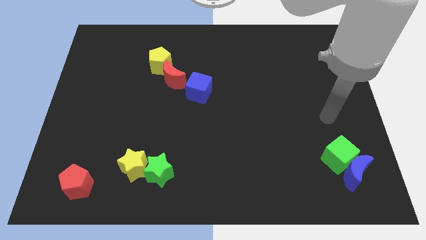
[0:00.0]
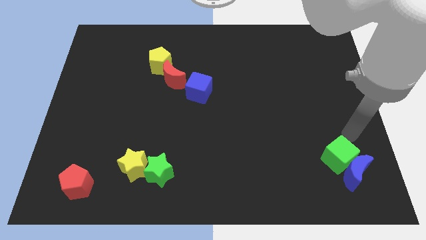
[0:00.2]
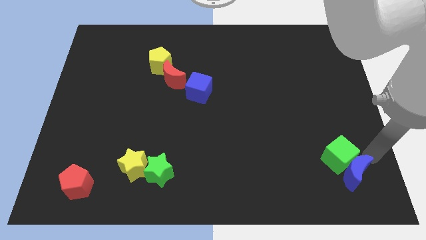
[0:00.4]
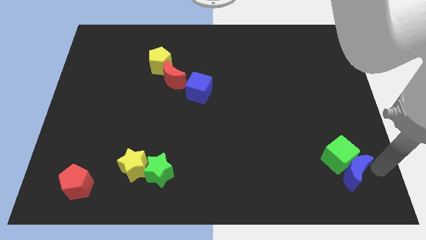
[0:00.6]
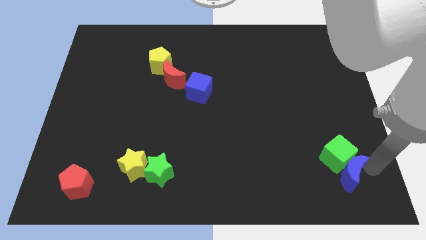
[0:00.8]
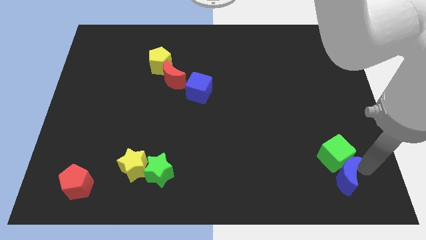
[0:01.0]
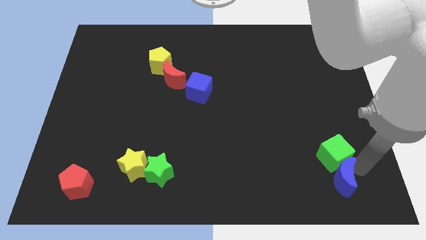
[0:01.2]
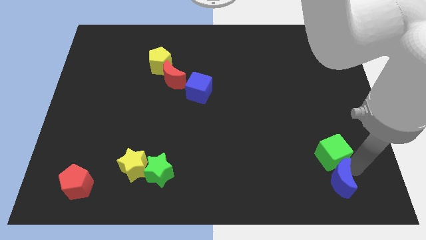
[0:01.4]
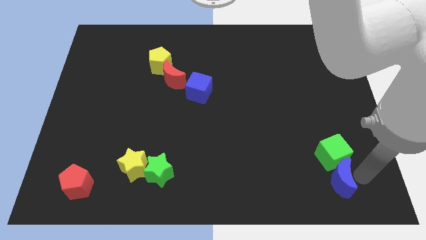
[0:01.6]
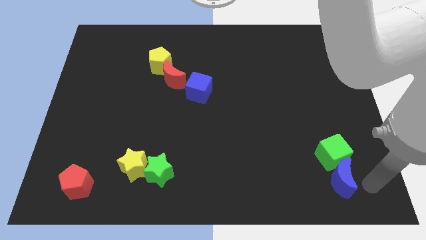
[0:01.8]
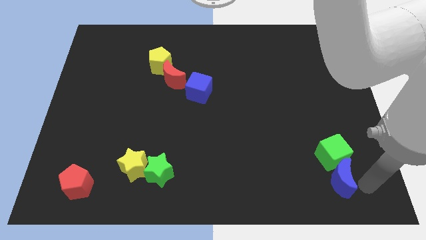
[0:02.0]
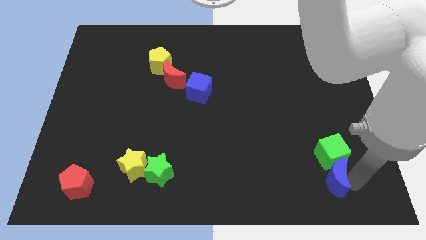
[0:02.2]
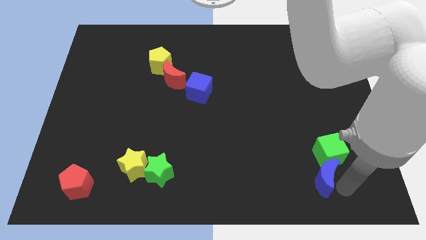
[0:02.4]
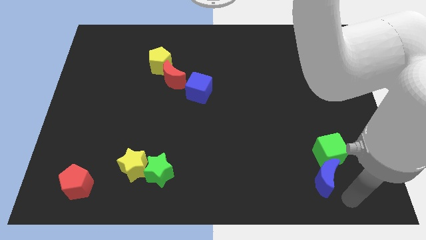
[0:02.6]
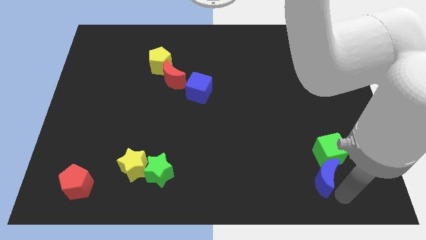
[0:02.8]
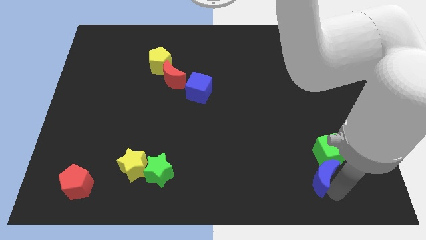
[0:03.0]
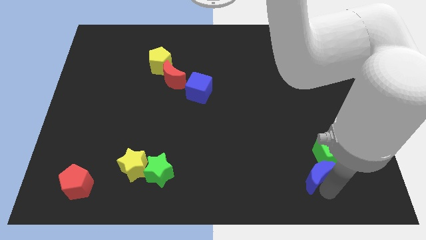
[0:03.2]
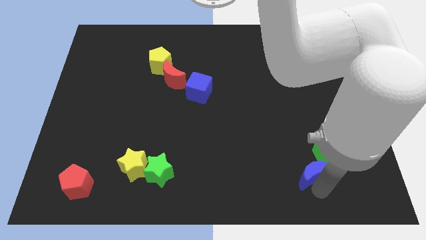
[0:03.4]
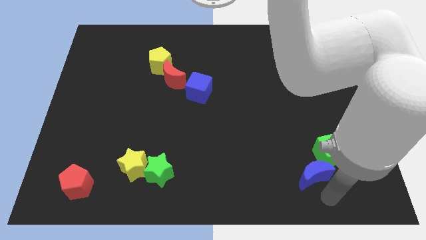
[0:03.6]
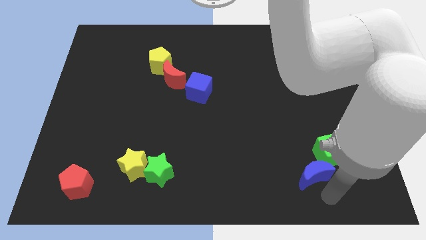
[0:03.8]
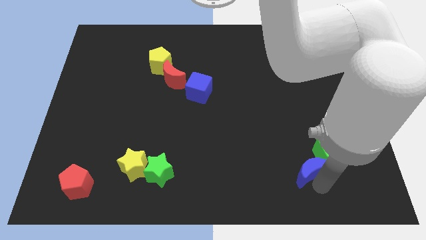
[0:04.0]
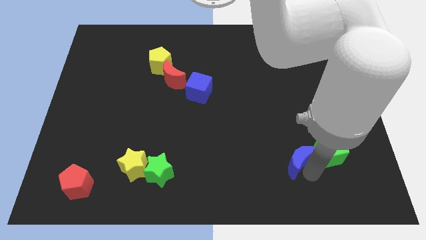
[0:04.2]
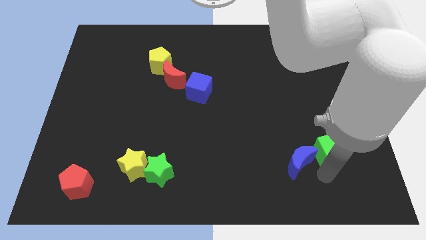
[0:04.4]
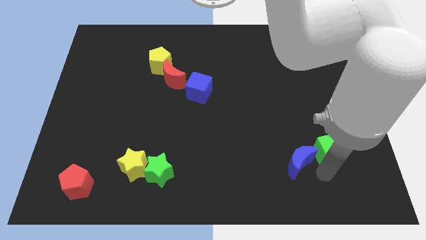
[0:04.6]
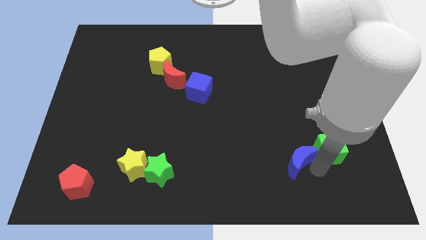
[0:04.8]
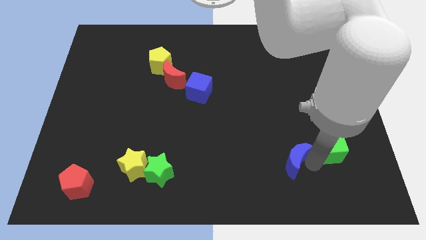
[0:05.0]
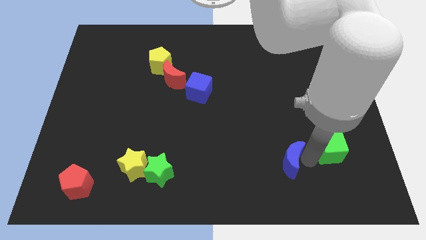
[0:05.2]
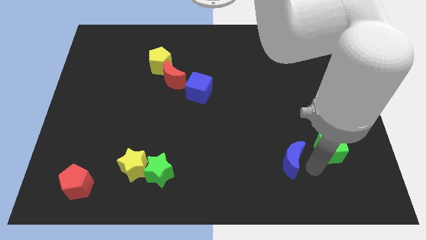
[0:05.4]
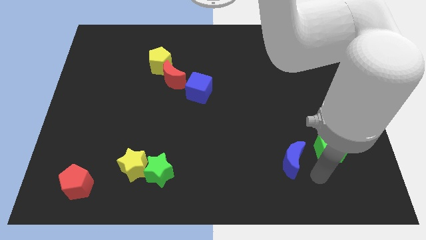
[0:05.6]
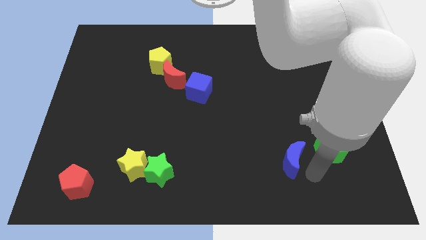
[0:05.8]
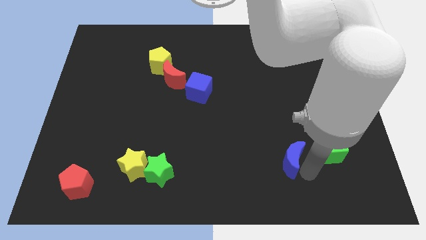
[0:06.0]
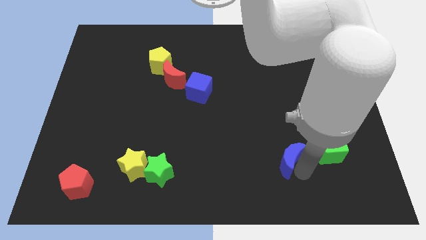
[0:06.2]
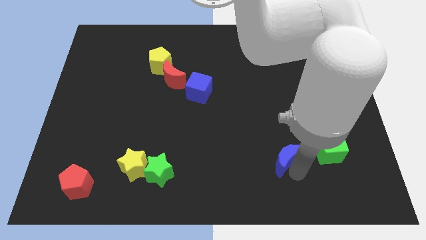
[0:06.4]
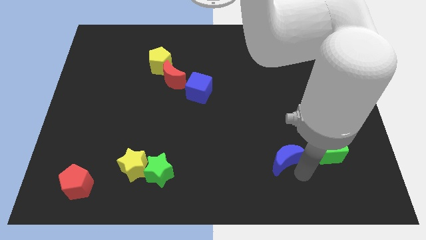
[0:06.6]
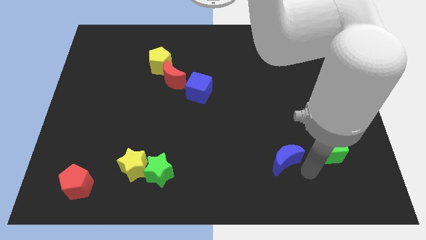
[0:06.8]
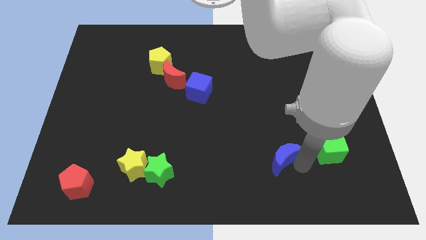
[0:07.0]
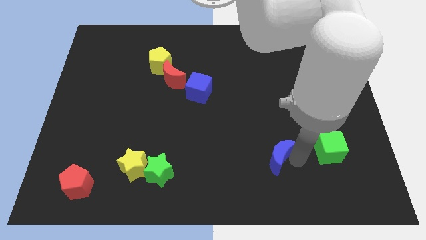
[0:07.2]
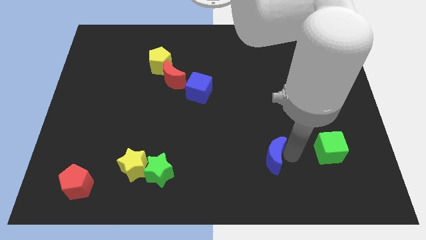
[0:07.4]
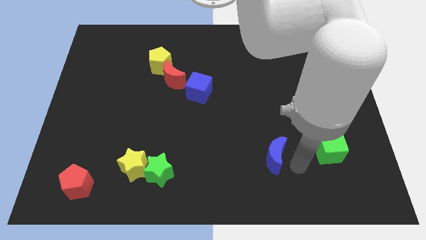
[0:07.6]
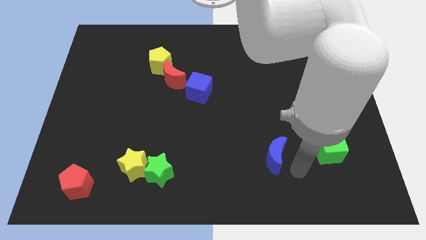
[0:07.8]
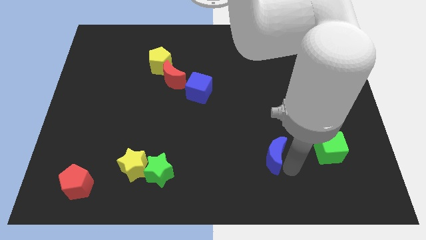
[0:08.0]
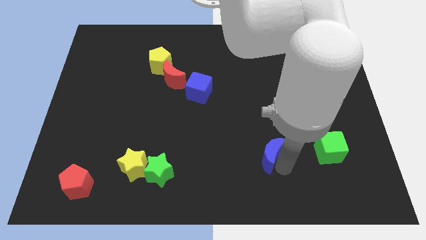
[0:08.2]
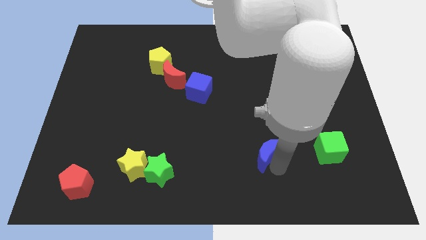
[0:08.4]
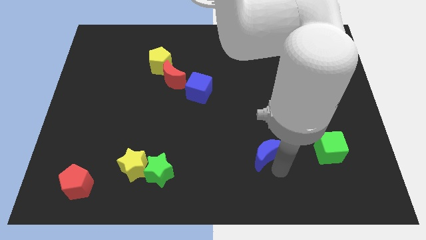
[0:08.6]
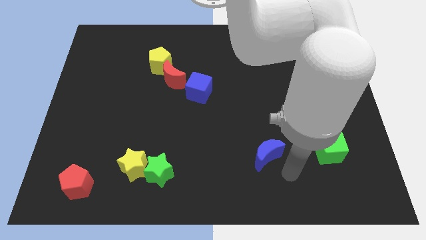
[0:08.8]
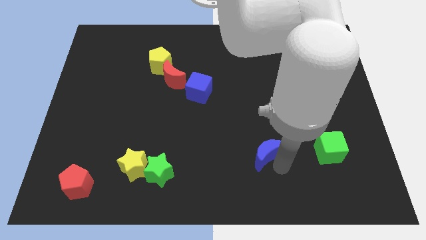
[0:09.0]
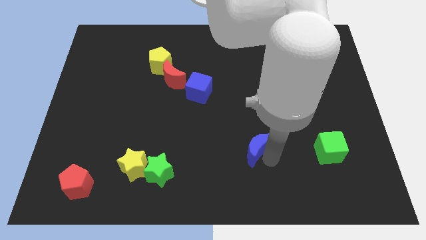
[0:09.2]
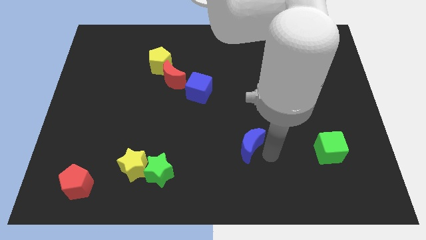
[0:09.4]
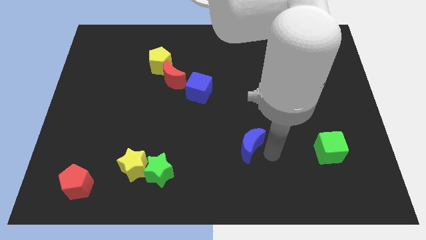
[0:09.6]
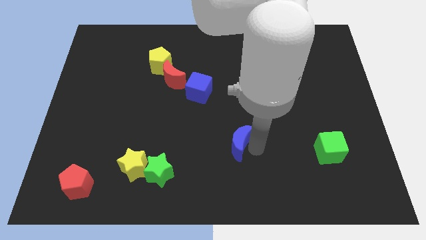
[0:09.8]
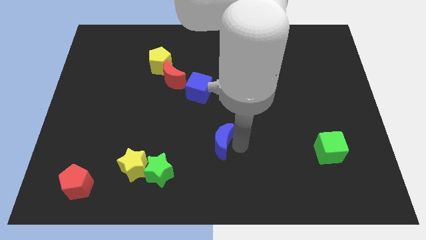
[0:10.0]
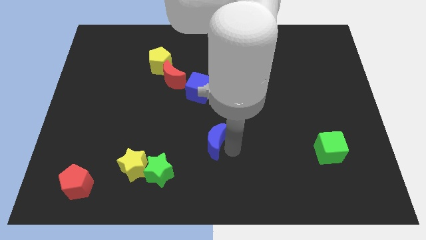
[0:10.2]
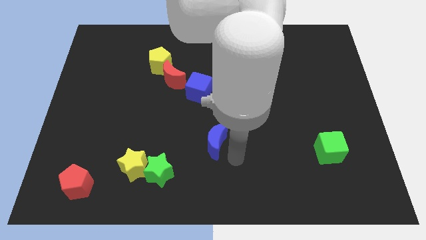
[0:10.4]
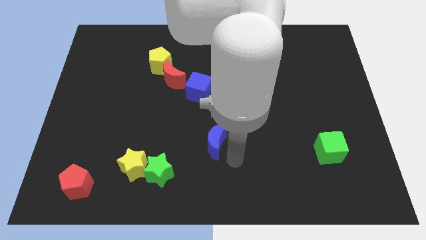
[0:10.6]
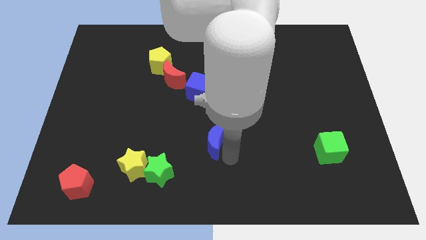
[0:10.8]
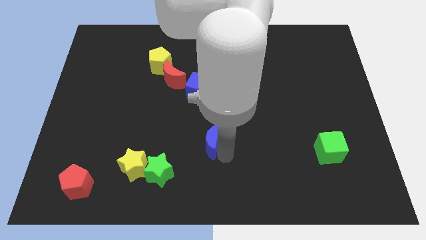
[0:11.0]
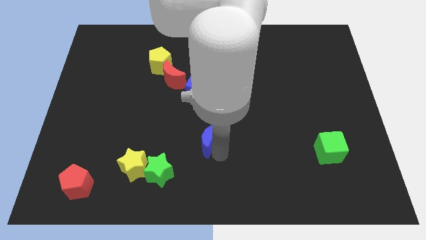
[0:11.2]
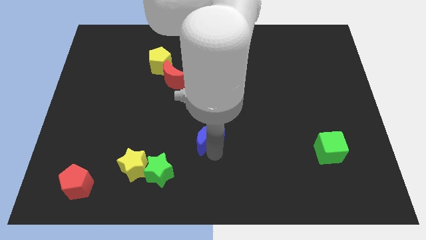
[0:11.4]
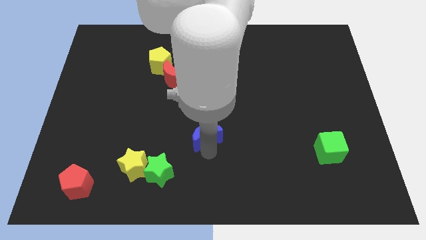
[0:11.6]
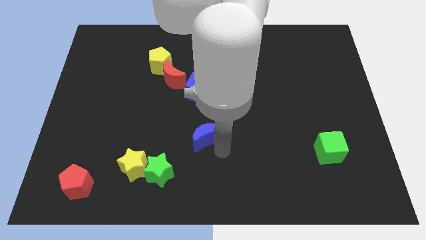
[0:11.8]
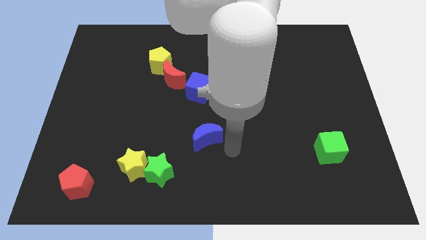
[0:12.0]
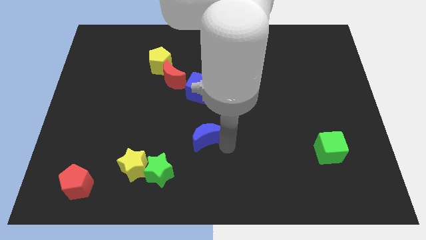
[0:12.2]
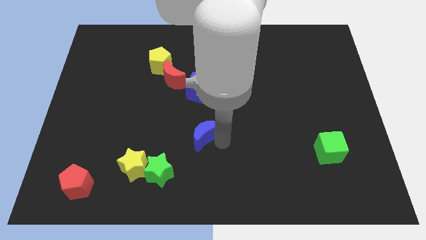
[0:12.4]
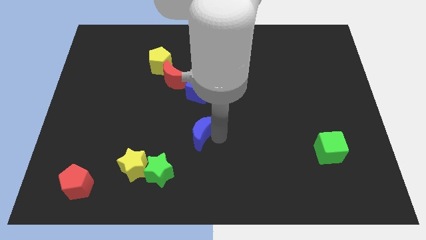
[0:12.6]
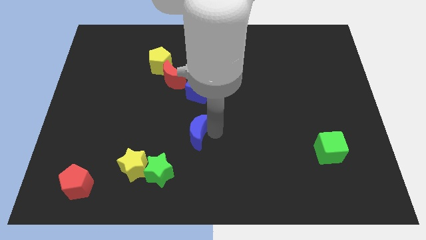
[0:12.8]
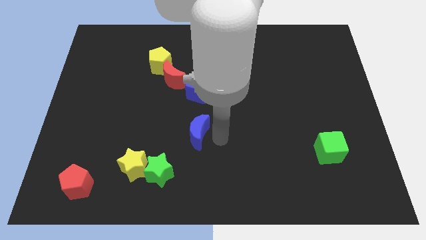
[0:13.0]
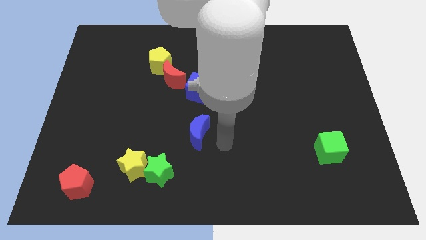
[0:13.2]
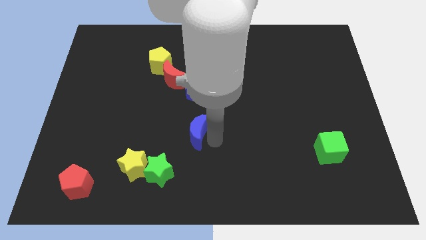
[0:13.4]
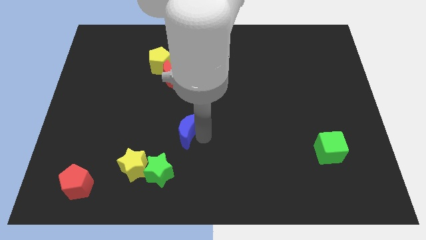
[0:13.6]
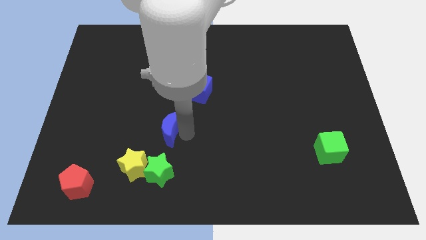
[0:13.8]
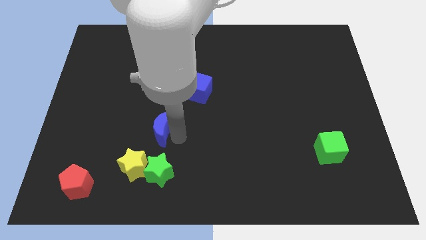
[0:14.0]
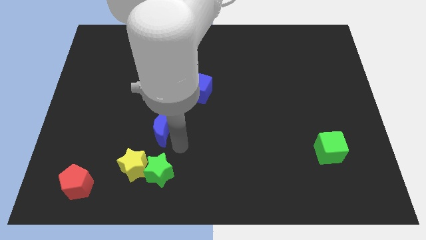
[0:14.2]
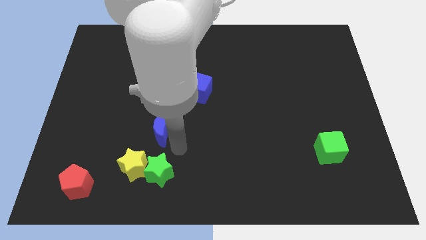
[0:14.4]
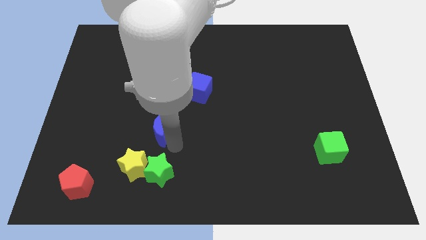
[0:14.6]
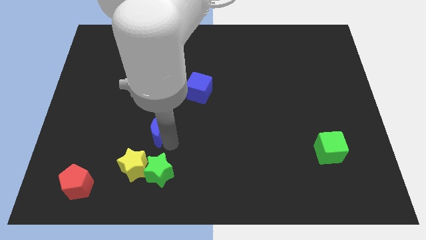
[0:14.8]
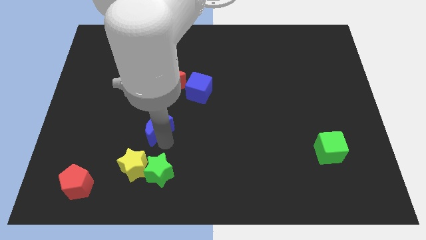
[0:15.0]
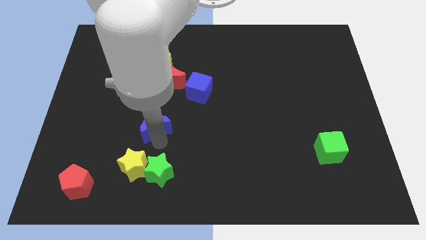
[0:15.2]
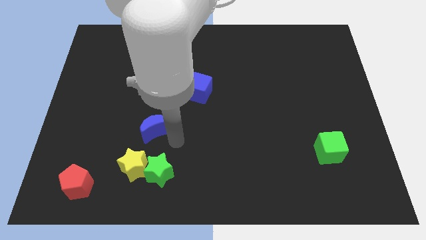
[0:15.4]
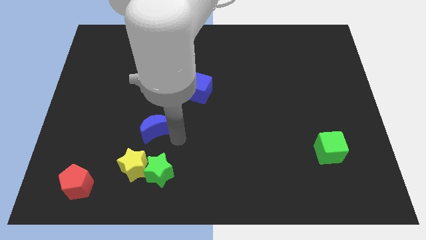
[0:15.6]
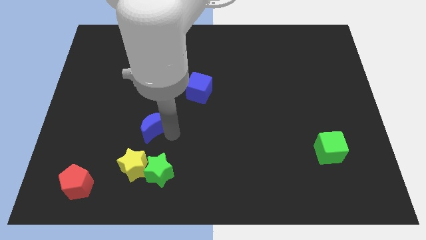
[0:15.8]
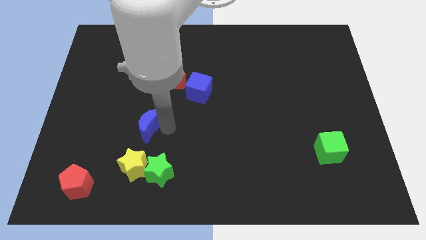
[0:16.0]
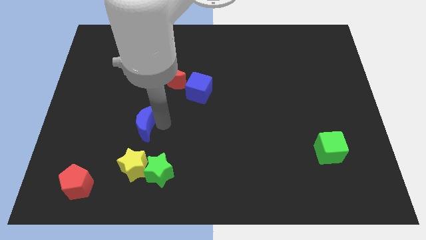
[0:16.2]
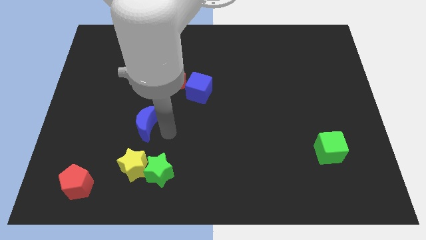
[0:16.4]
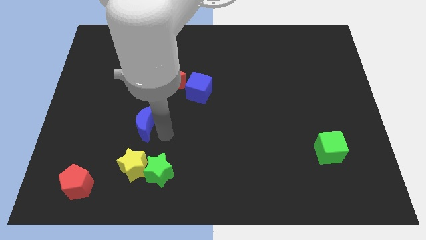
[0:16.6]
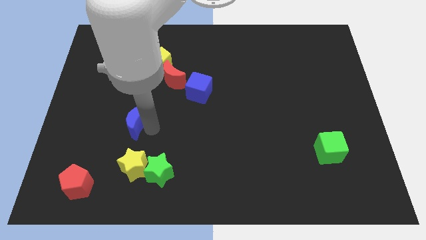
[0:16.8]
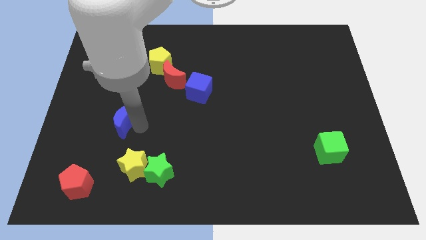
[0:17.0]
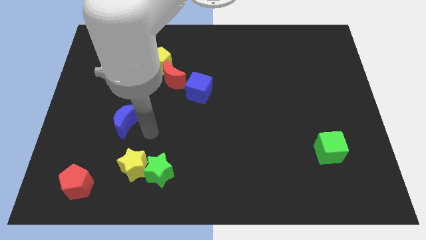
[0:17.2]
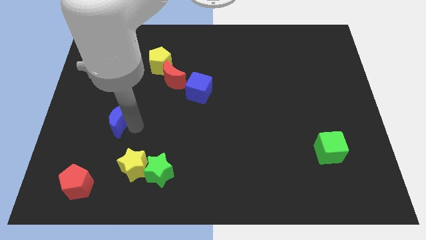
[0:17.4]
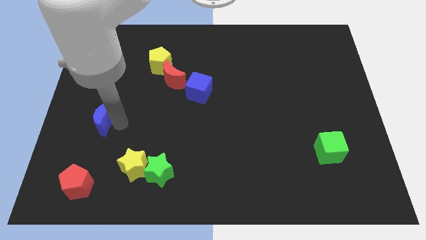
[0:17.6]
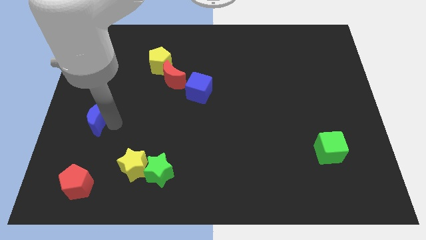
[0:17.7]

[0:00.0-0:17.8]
move the blue moon to the left side
